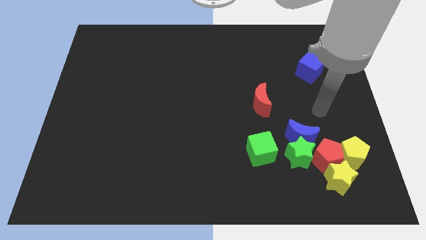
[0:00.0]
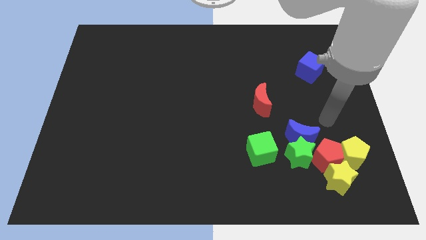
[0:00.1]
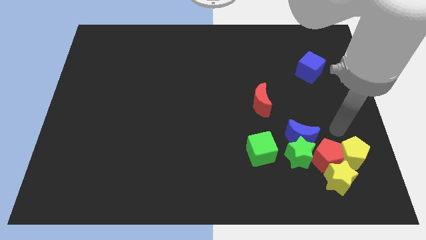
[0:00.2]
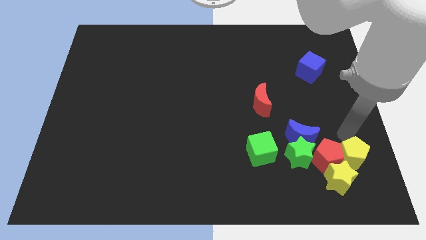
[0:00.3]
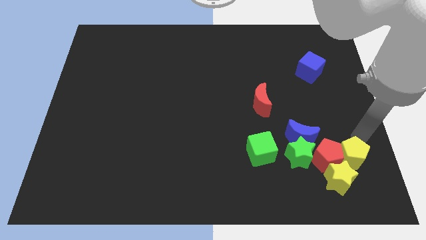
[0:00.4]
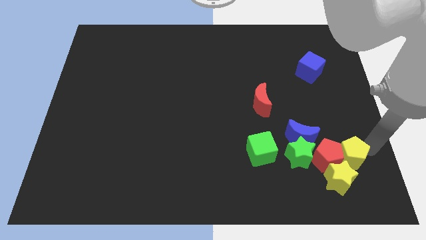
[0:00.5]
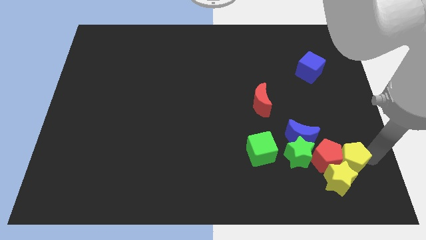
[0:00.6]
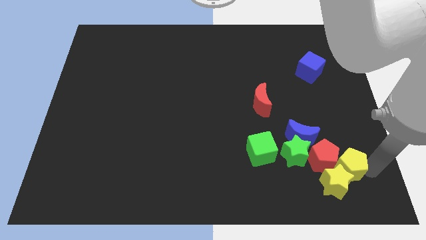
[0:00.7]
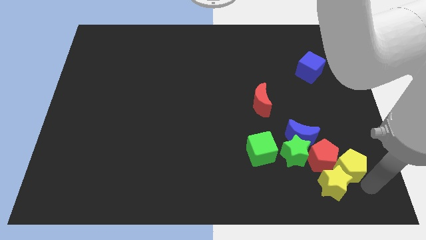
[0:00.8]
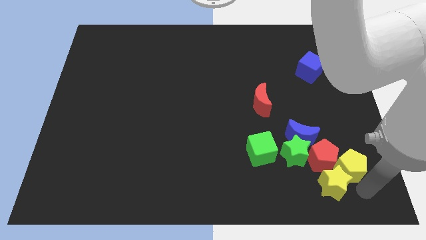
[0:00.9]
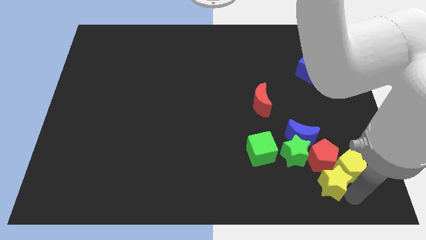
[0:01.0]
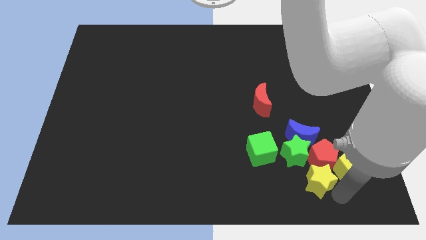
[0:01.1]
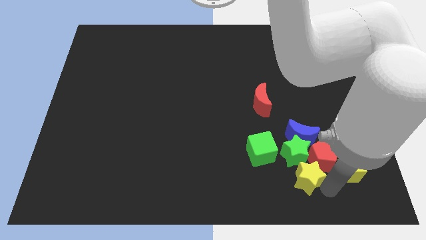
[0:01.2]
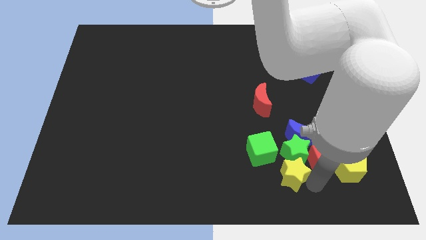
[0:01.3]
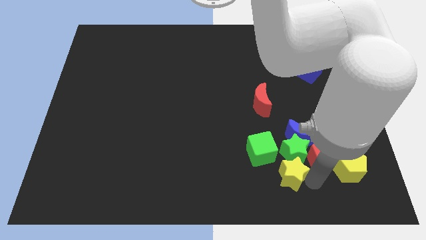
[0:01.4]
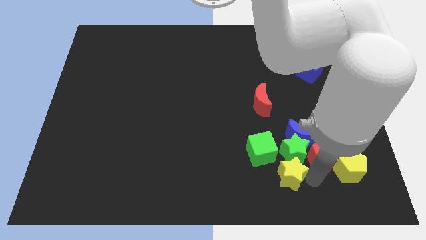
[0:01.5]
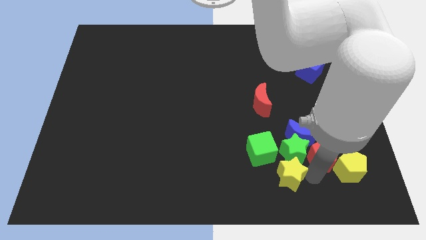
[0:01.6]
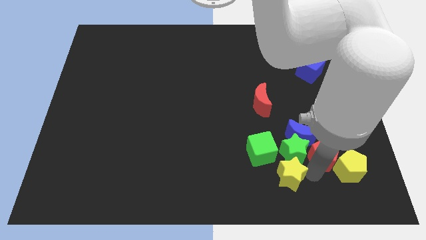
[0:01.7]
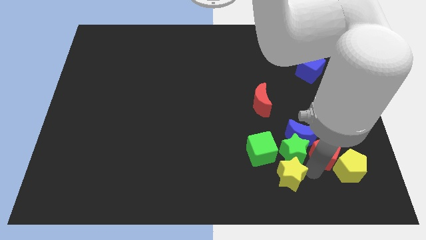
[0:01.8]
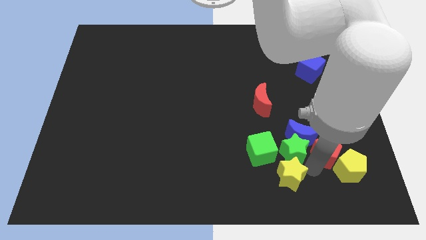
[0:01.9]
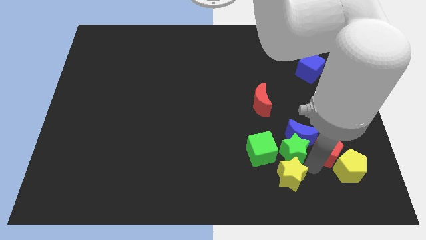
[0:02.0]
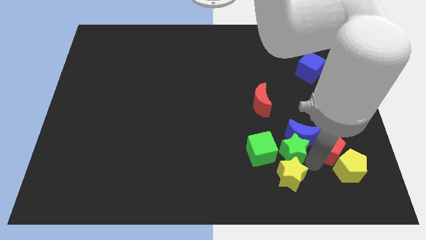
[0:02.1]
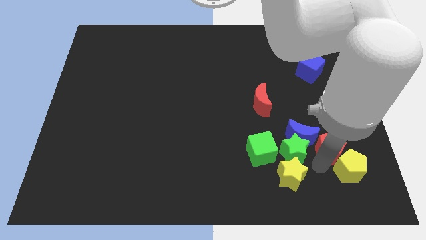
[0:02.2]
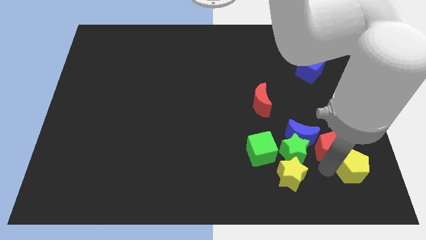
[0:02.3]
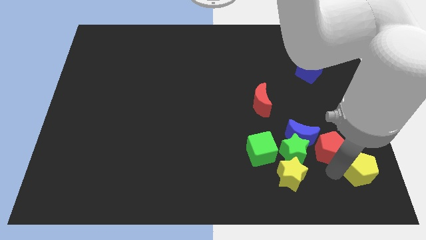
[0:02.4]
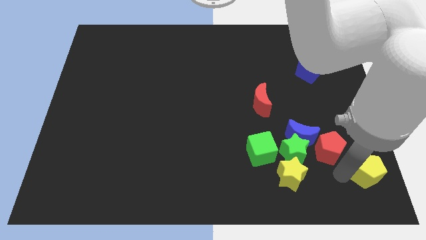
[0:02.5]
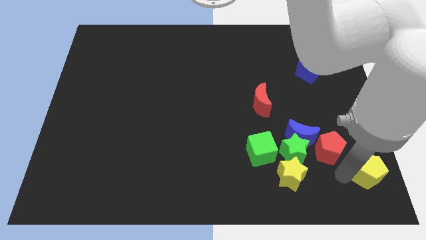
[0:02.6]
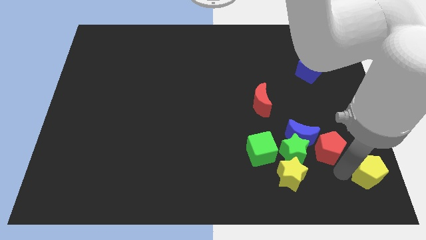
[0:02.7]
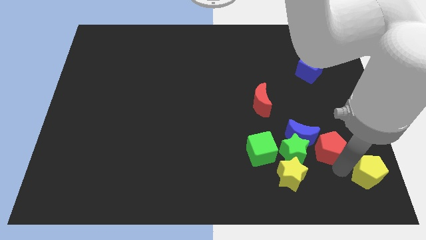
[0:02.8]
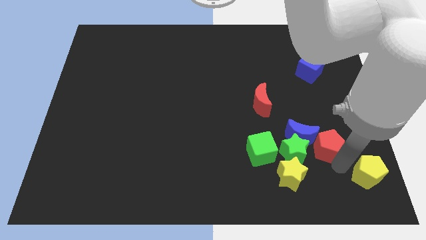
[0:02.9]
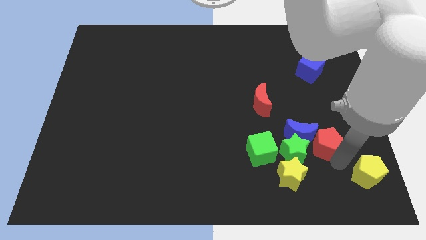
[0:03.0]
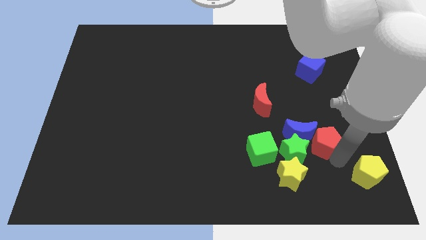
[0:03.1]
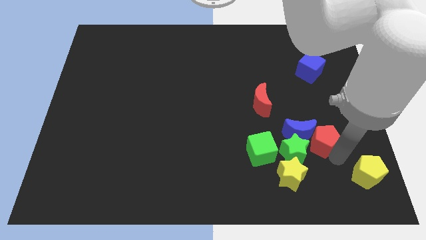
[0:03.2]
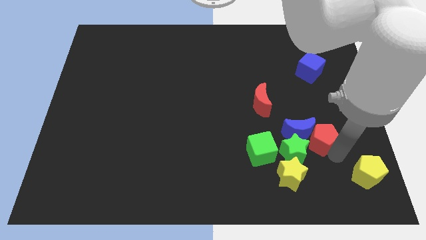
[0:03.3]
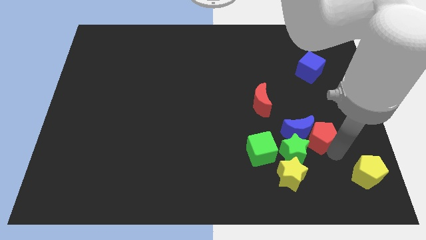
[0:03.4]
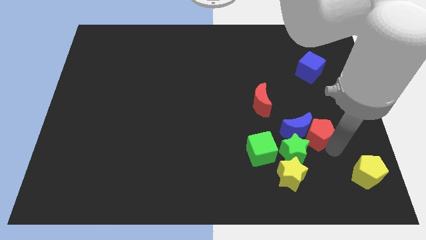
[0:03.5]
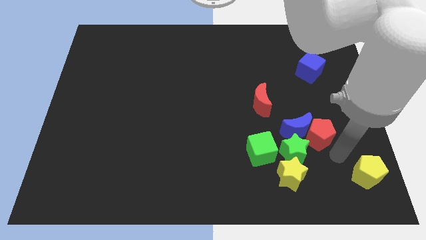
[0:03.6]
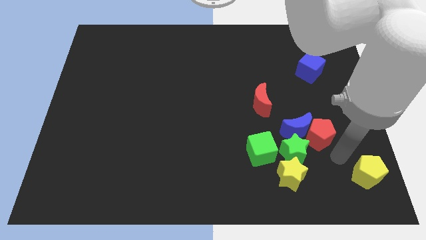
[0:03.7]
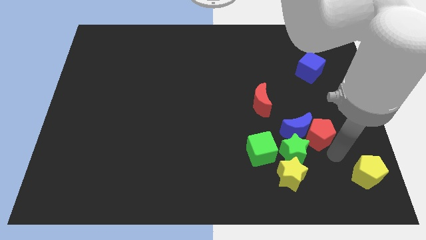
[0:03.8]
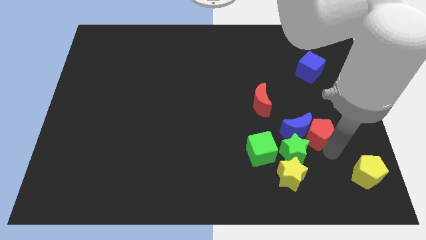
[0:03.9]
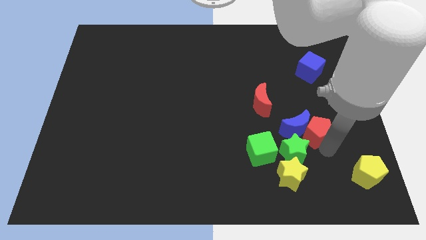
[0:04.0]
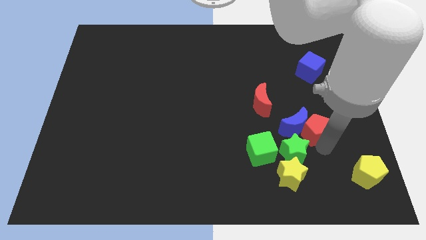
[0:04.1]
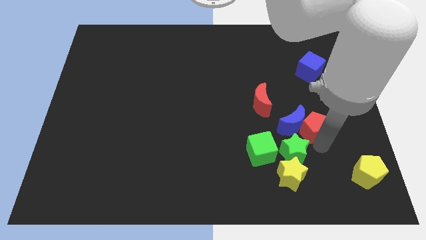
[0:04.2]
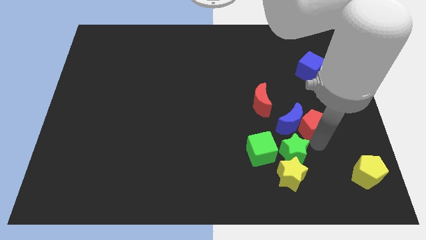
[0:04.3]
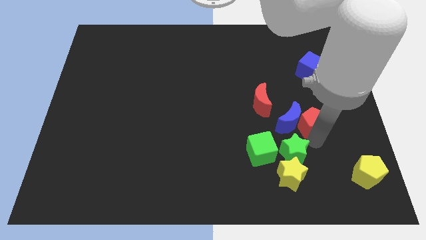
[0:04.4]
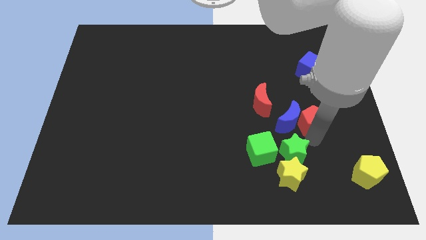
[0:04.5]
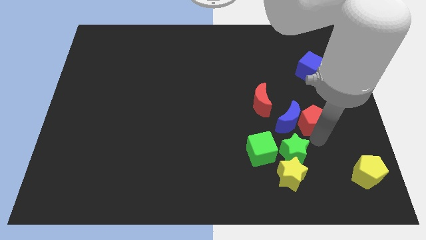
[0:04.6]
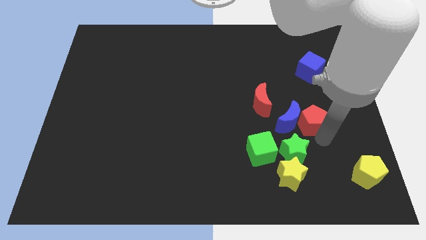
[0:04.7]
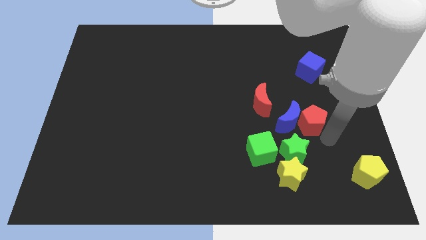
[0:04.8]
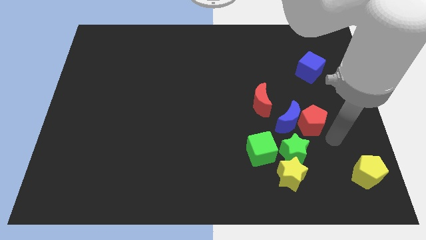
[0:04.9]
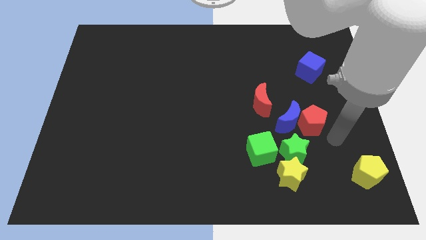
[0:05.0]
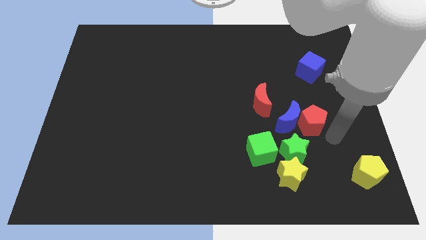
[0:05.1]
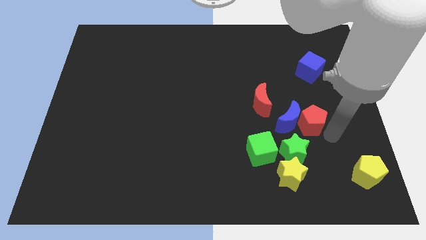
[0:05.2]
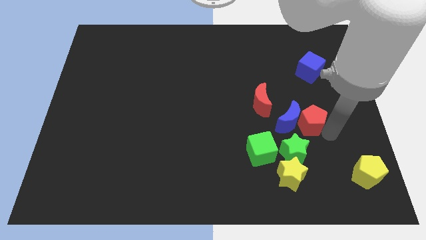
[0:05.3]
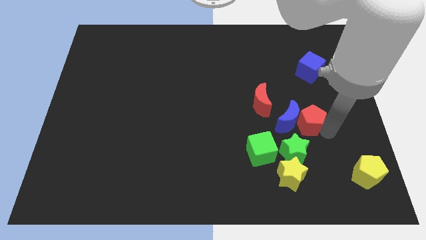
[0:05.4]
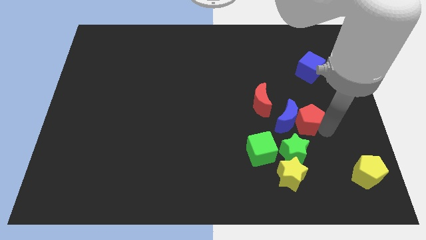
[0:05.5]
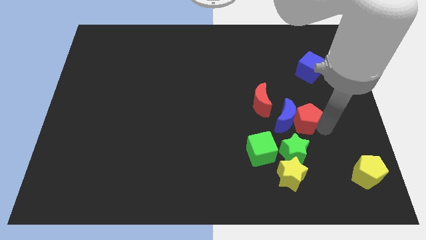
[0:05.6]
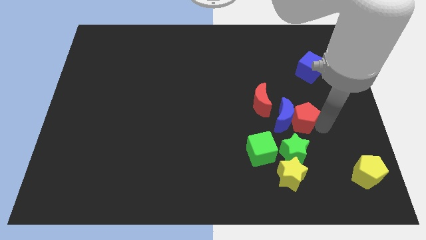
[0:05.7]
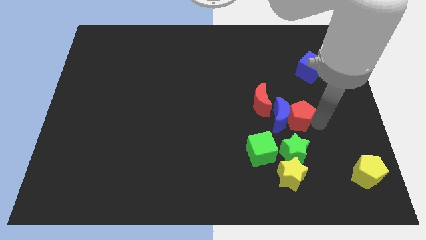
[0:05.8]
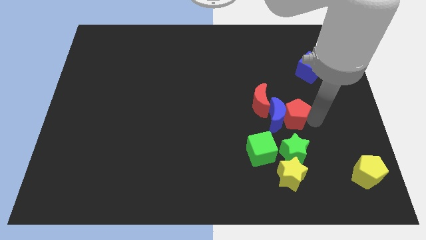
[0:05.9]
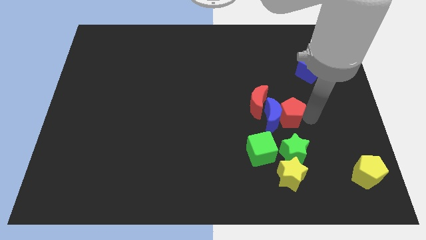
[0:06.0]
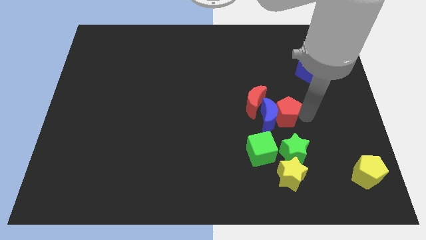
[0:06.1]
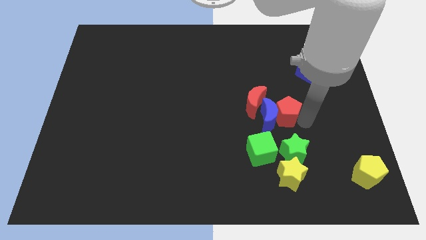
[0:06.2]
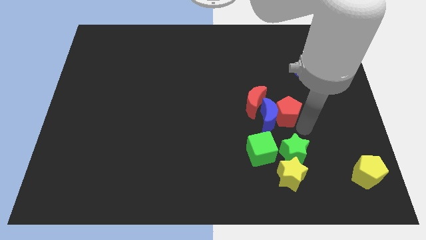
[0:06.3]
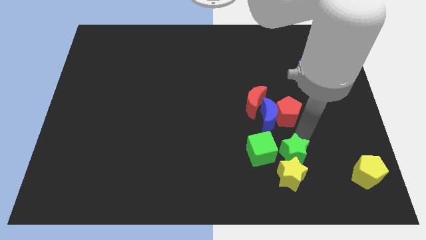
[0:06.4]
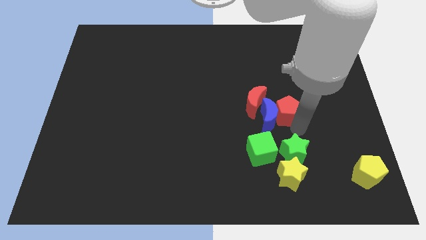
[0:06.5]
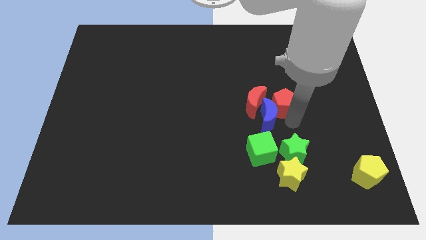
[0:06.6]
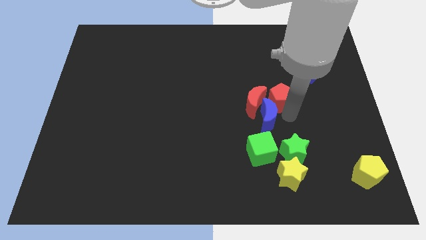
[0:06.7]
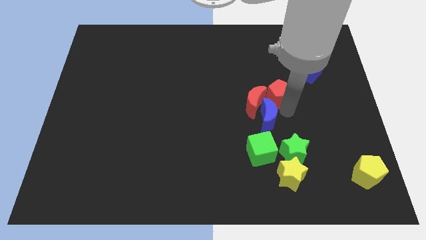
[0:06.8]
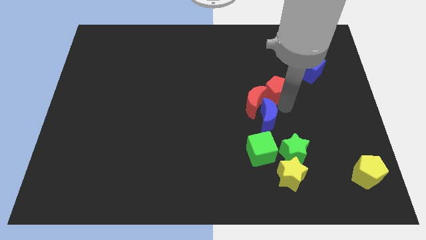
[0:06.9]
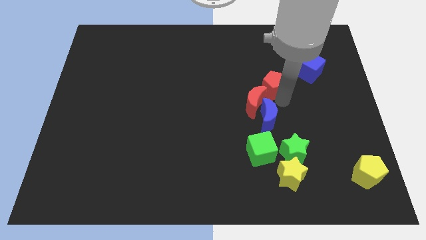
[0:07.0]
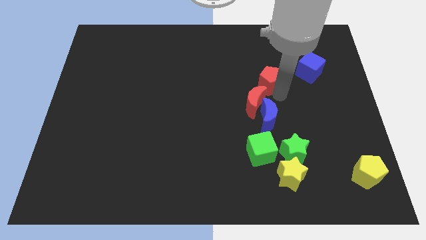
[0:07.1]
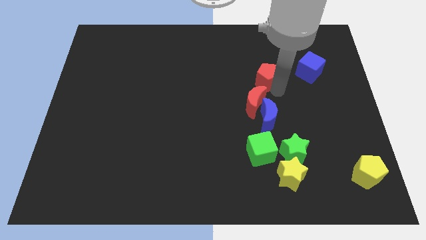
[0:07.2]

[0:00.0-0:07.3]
move the red pentagon up and then to the left

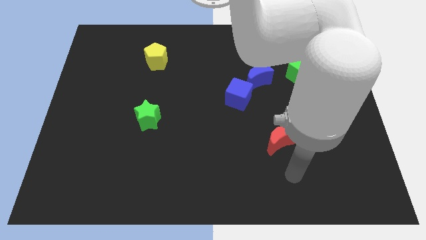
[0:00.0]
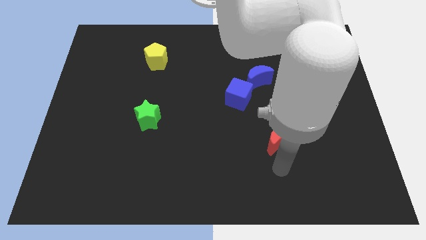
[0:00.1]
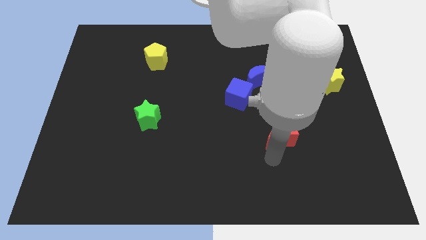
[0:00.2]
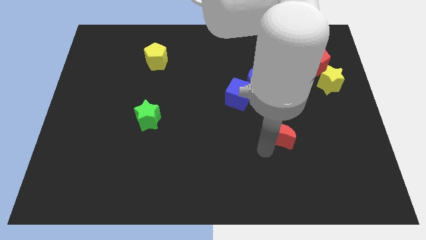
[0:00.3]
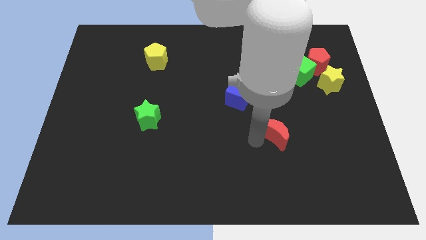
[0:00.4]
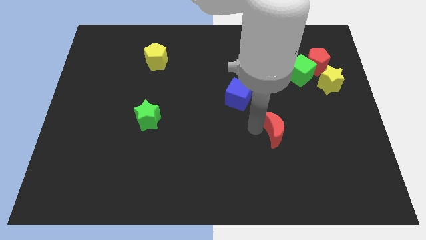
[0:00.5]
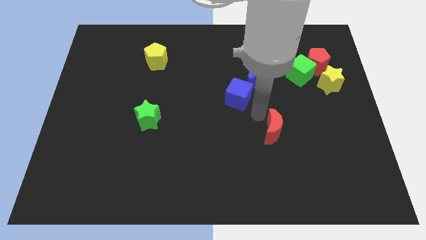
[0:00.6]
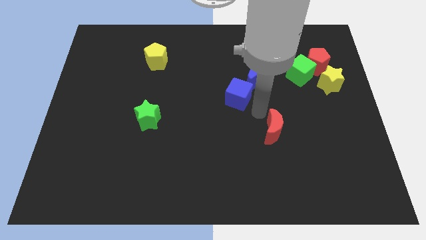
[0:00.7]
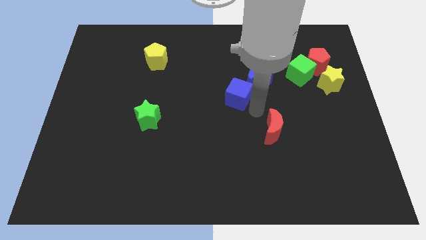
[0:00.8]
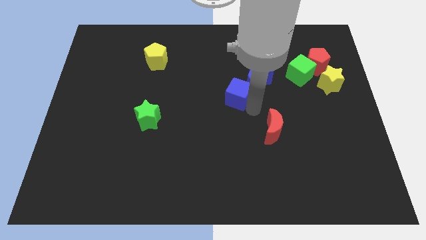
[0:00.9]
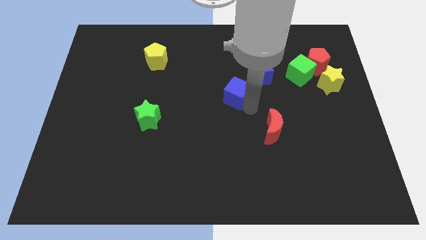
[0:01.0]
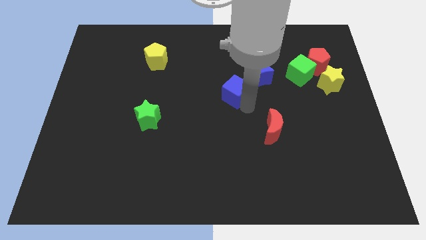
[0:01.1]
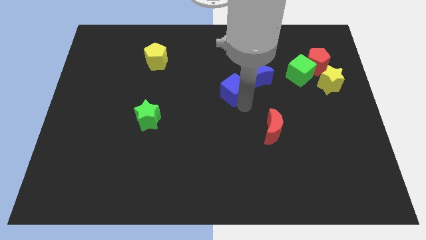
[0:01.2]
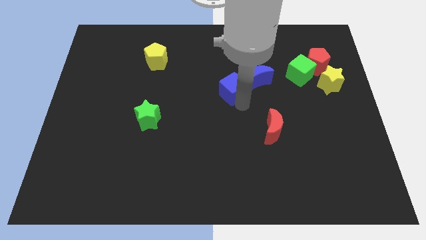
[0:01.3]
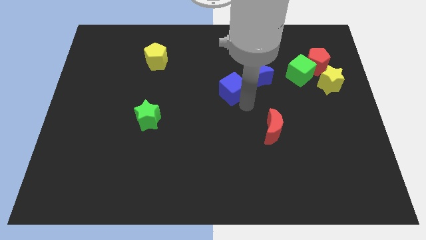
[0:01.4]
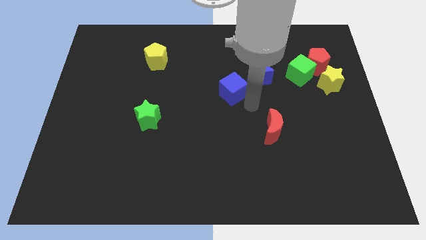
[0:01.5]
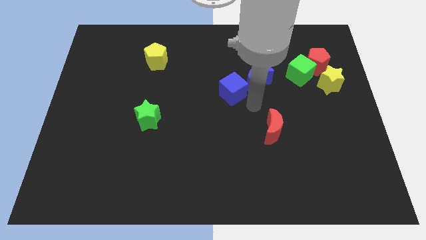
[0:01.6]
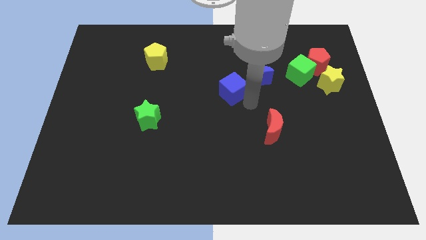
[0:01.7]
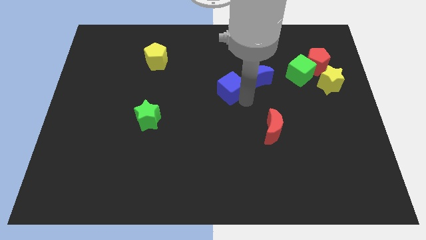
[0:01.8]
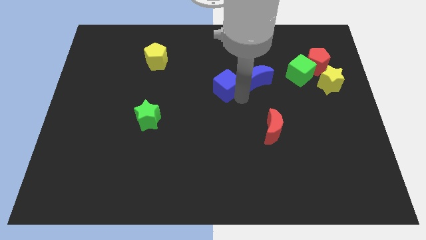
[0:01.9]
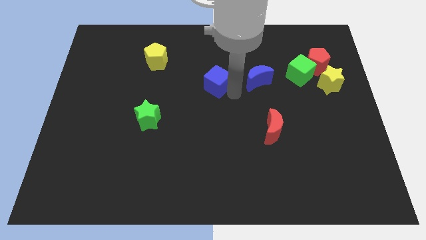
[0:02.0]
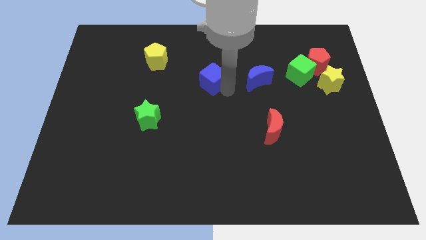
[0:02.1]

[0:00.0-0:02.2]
move the blue cube a bit up and to the left
